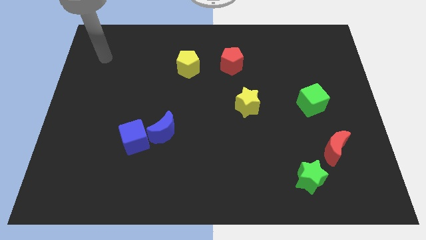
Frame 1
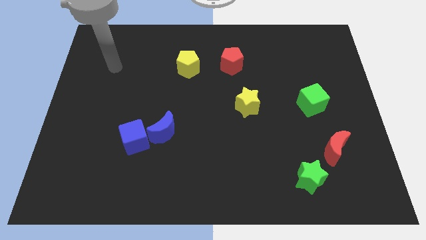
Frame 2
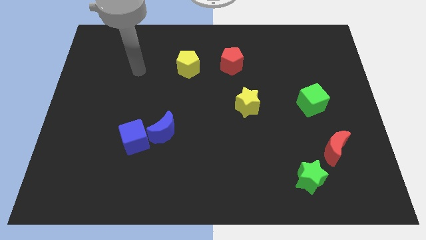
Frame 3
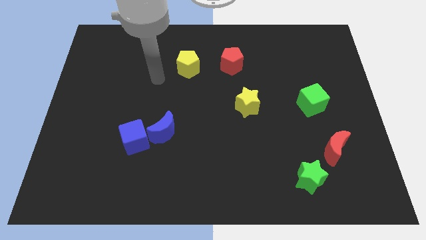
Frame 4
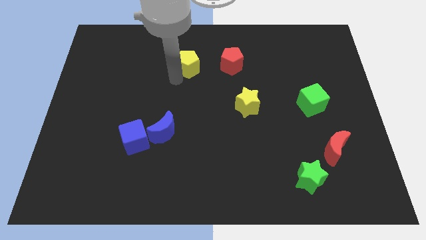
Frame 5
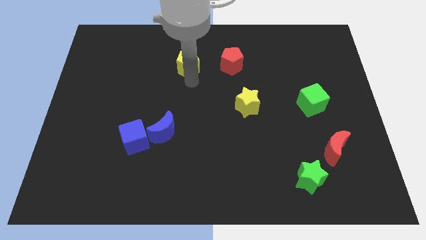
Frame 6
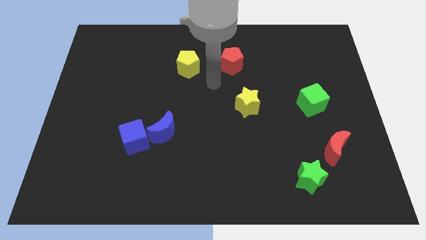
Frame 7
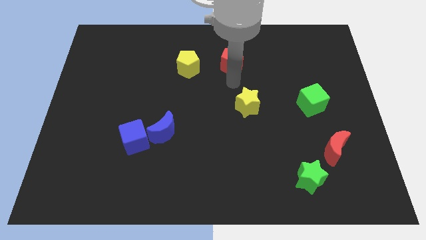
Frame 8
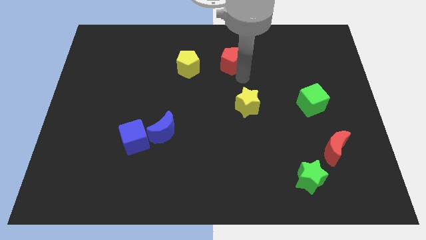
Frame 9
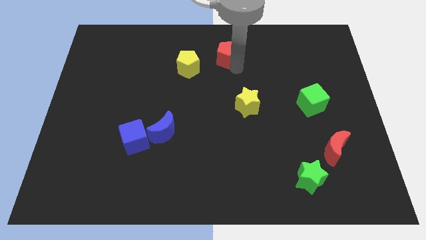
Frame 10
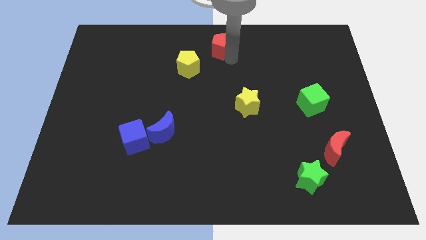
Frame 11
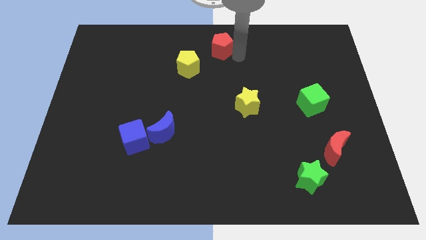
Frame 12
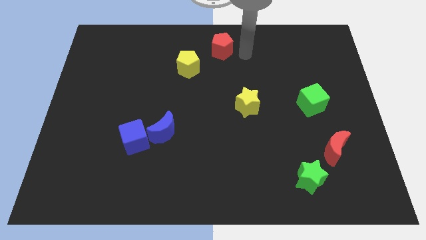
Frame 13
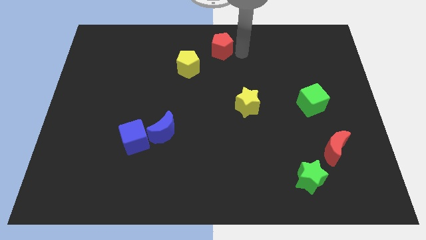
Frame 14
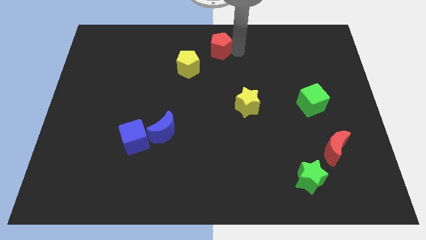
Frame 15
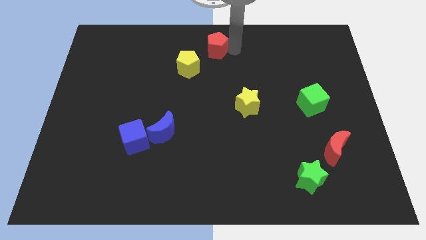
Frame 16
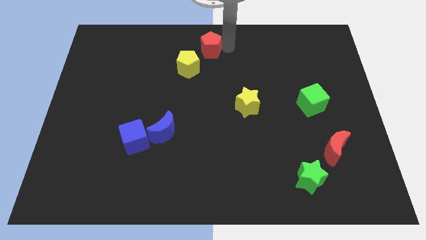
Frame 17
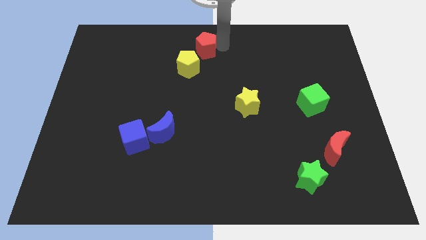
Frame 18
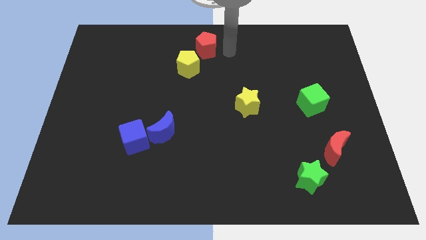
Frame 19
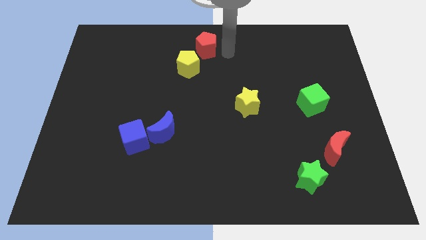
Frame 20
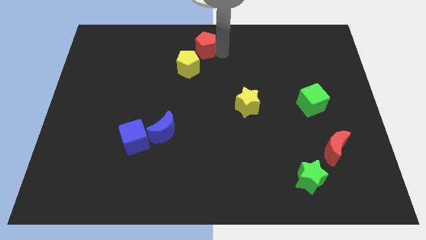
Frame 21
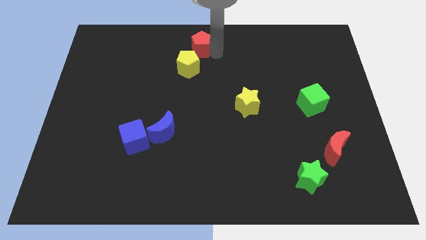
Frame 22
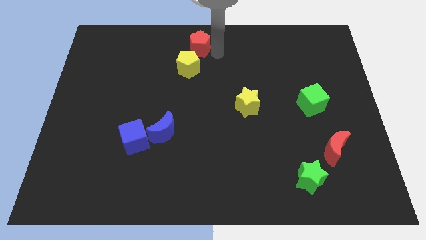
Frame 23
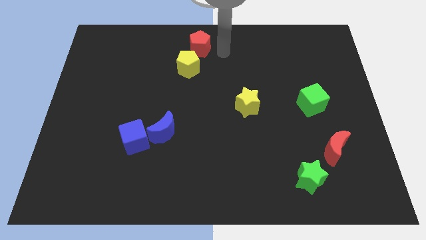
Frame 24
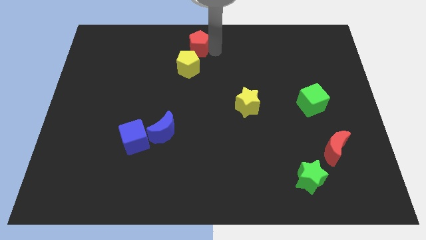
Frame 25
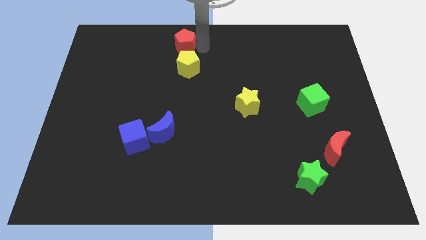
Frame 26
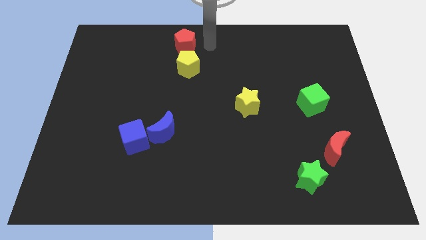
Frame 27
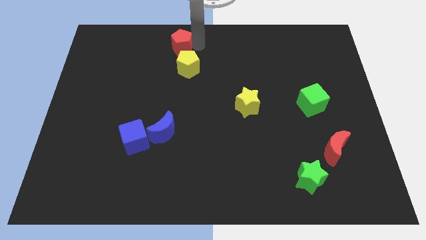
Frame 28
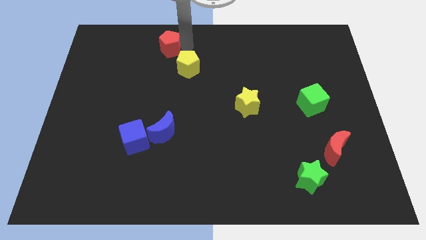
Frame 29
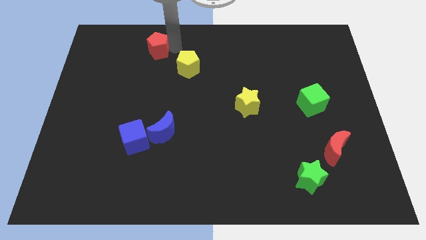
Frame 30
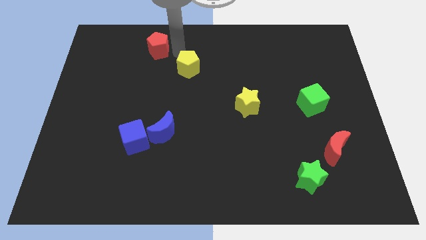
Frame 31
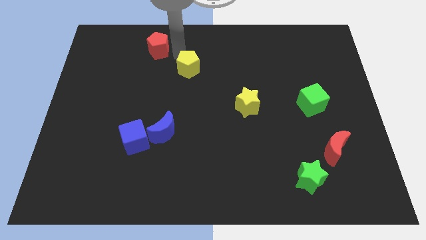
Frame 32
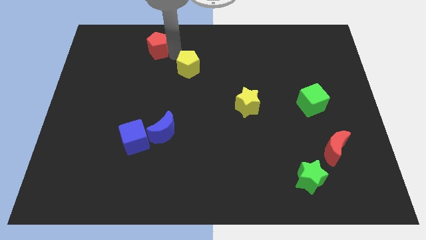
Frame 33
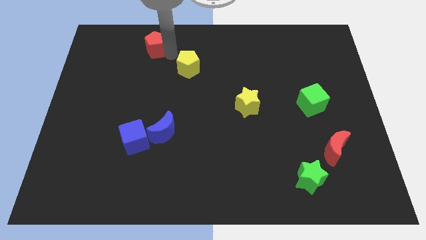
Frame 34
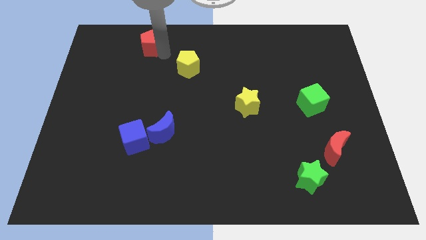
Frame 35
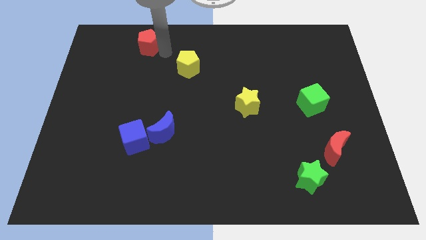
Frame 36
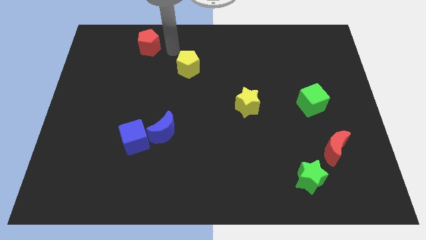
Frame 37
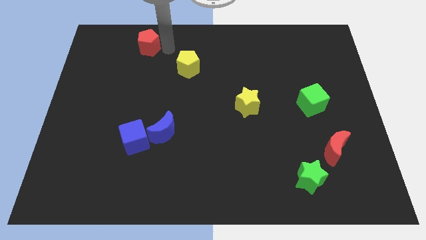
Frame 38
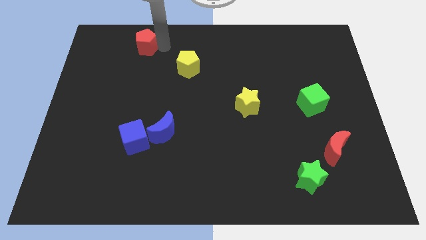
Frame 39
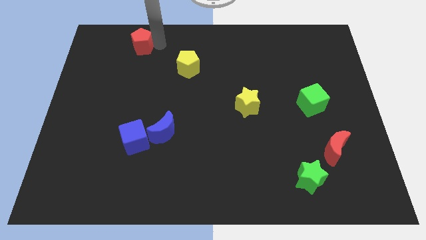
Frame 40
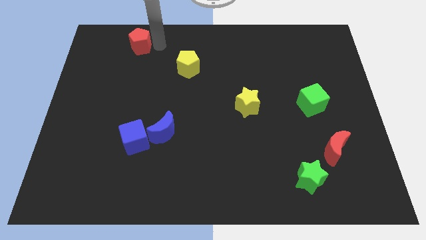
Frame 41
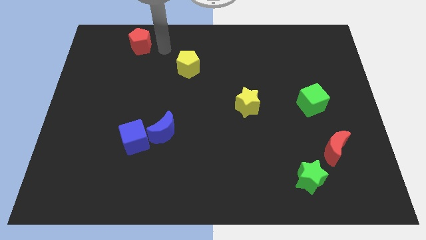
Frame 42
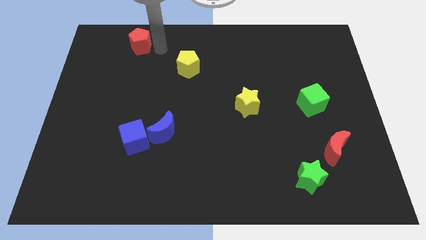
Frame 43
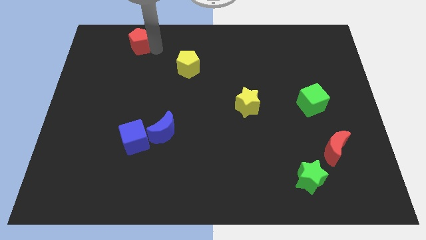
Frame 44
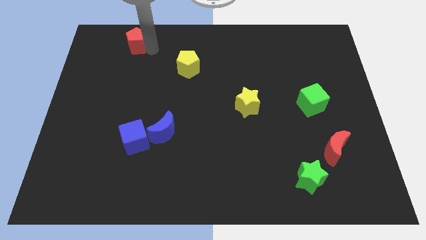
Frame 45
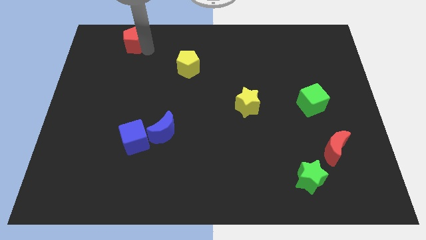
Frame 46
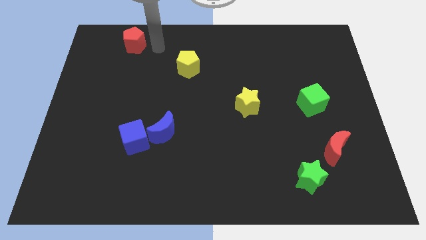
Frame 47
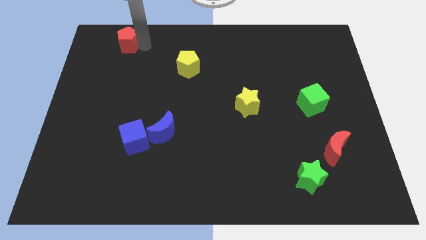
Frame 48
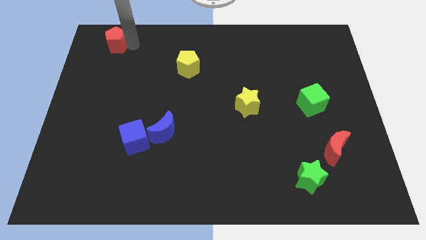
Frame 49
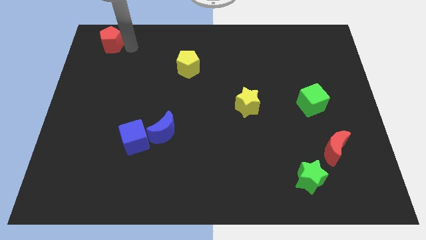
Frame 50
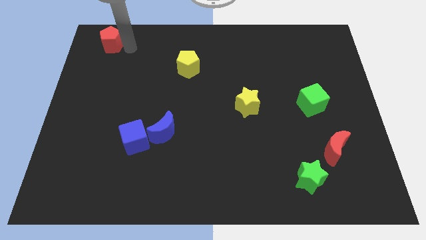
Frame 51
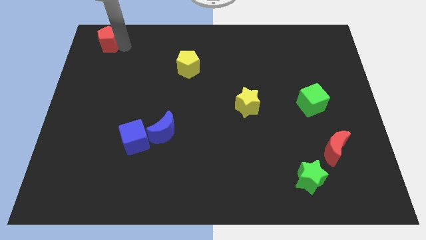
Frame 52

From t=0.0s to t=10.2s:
push the red pentagon to the top left of the board

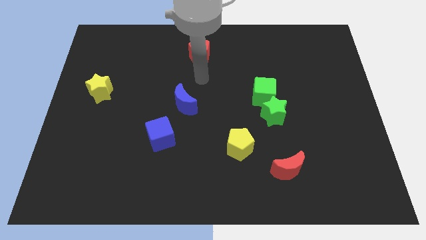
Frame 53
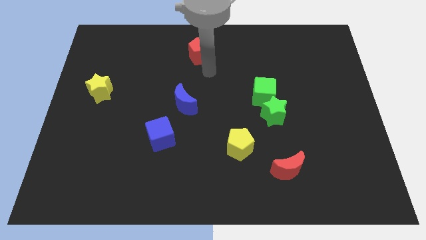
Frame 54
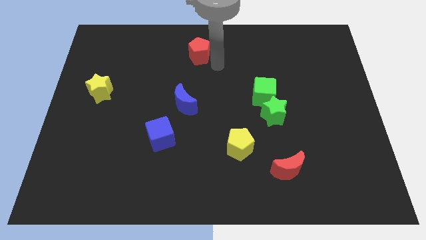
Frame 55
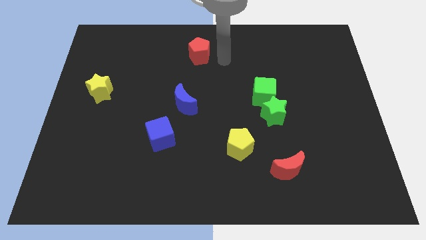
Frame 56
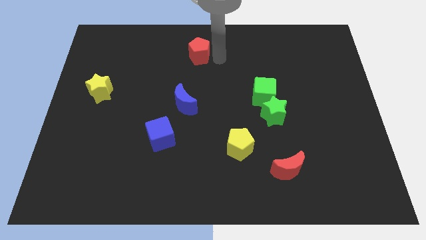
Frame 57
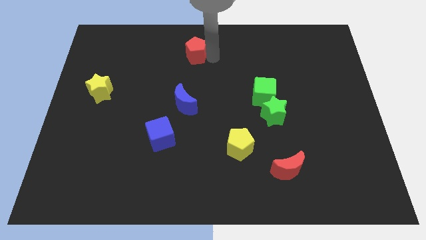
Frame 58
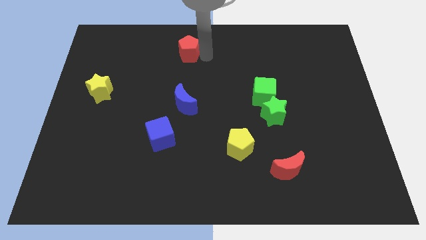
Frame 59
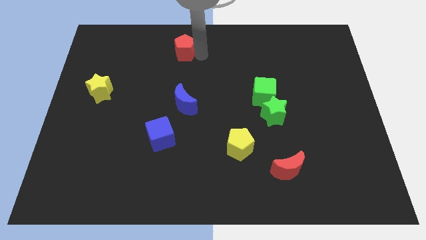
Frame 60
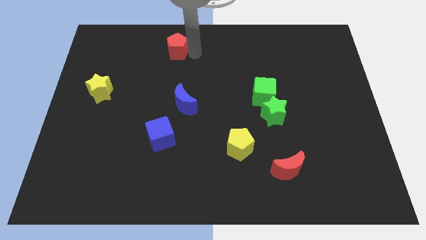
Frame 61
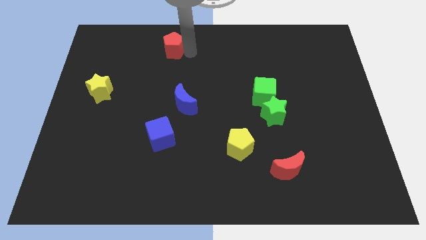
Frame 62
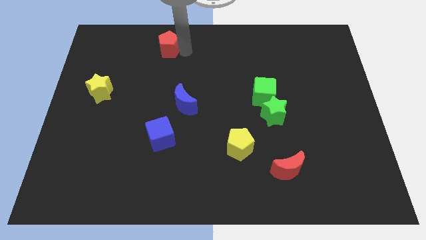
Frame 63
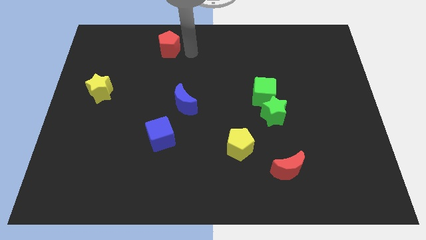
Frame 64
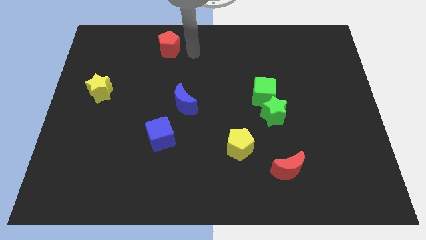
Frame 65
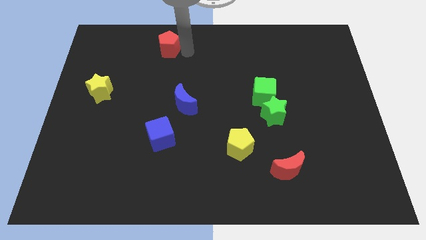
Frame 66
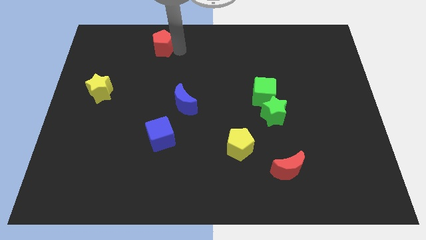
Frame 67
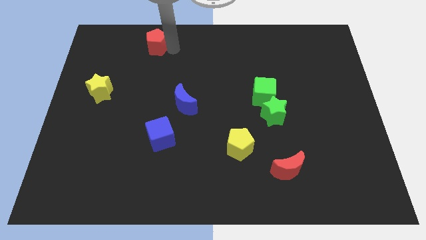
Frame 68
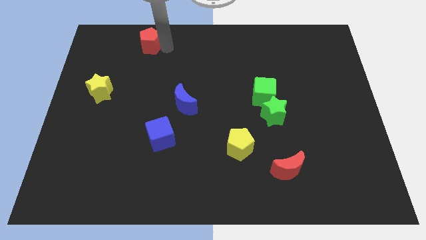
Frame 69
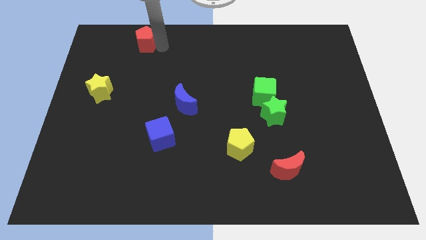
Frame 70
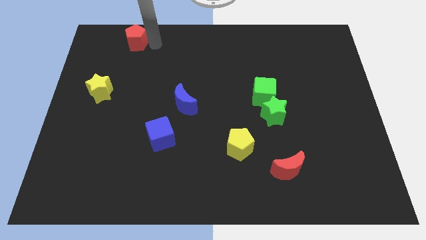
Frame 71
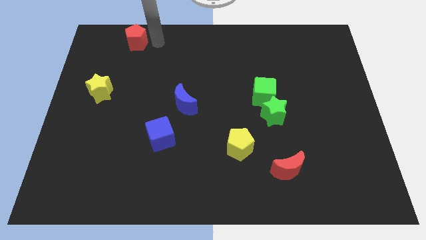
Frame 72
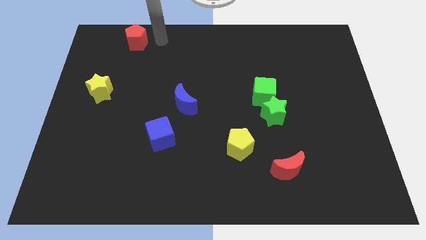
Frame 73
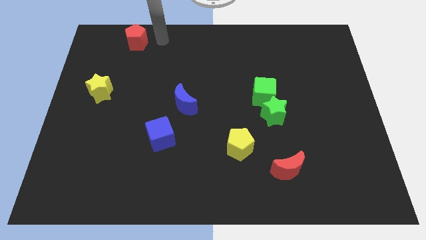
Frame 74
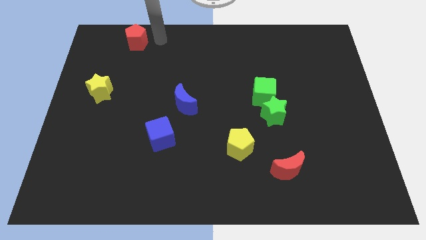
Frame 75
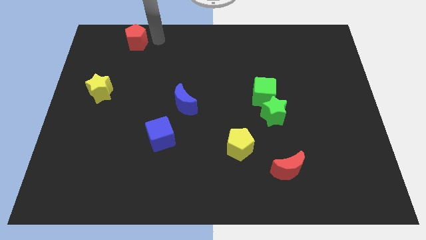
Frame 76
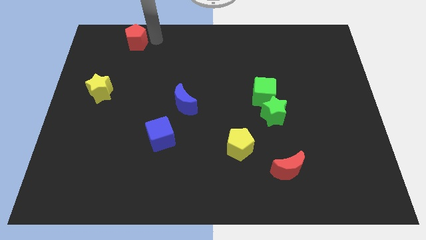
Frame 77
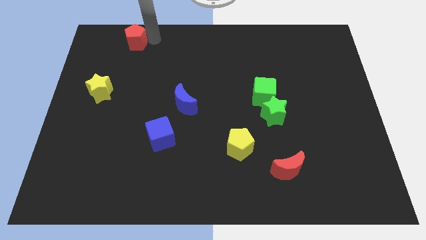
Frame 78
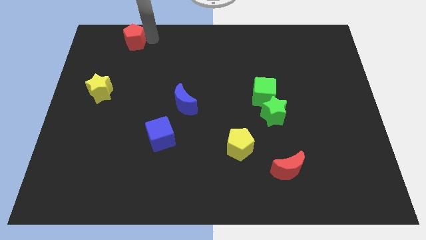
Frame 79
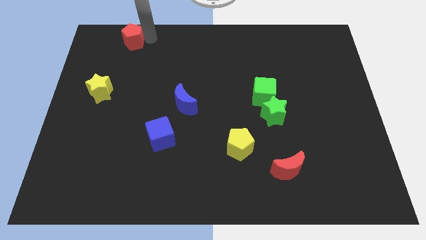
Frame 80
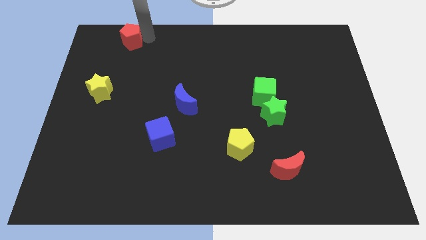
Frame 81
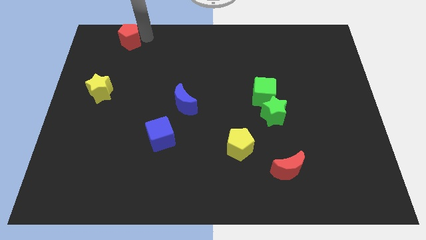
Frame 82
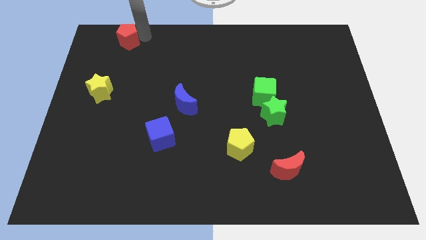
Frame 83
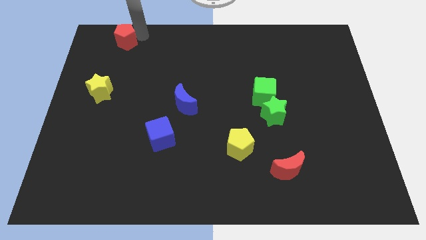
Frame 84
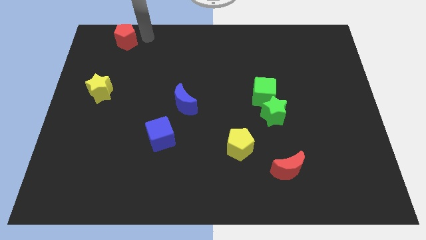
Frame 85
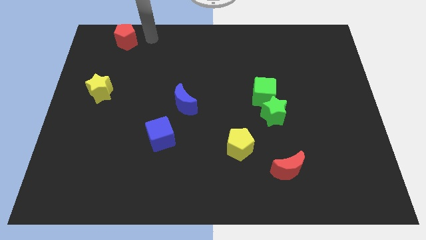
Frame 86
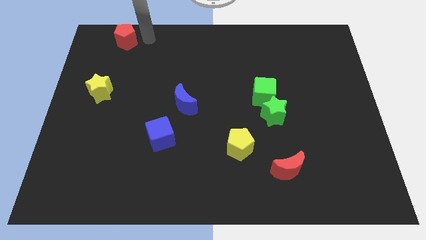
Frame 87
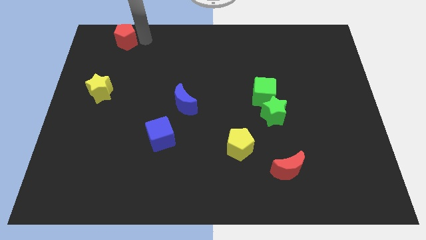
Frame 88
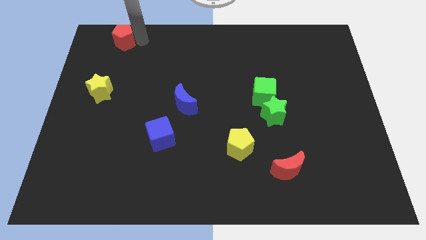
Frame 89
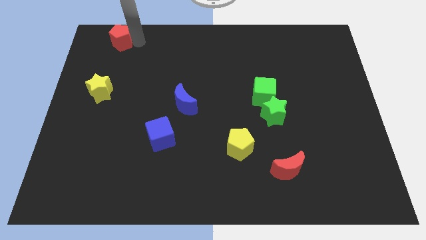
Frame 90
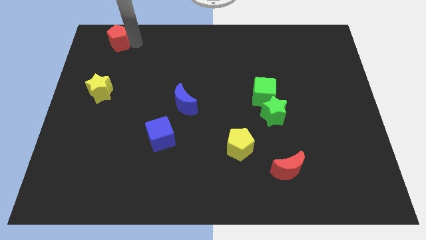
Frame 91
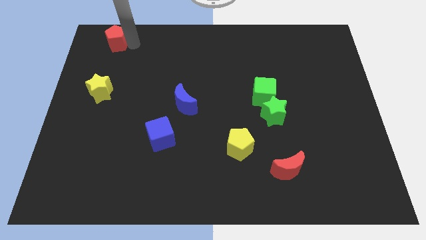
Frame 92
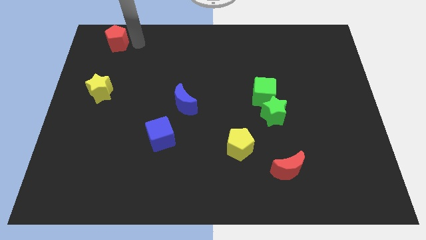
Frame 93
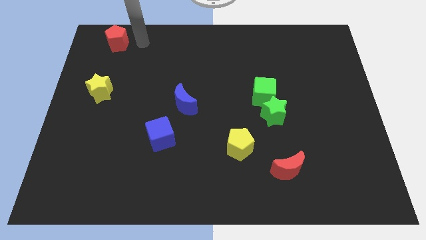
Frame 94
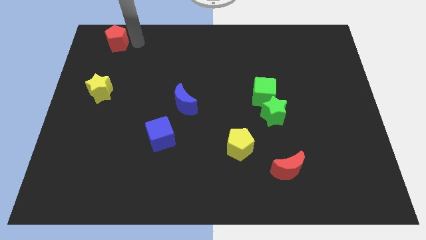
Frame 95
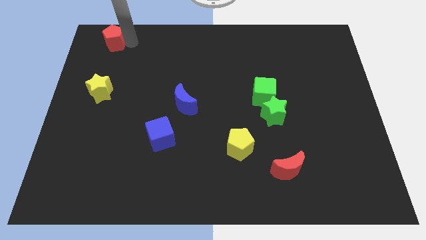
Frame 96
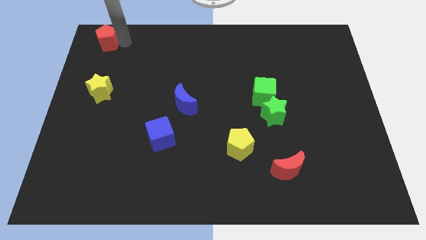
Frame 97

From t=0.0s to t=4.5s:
put the red pentagon to the top left of the board
